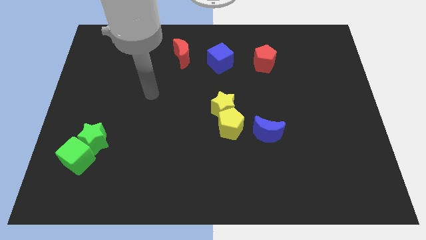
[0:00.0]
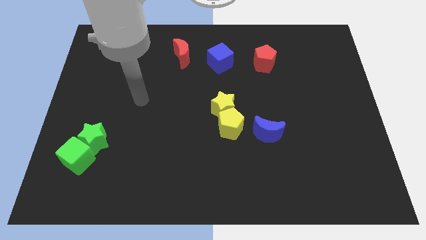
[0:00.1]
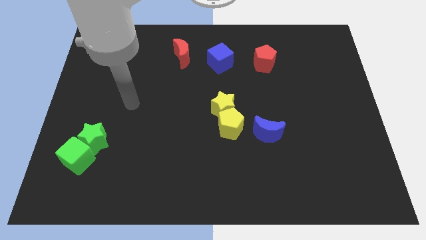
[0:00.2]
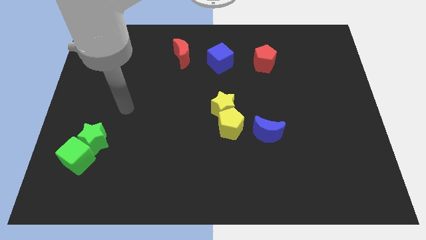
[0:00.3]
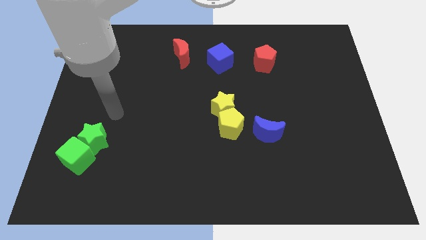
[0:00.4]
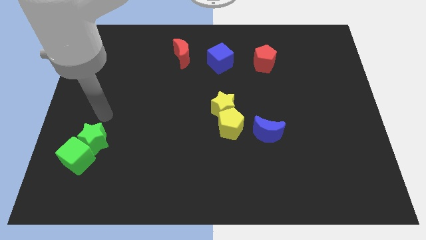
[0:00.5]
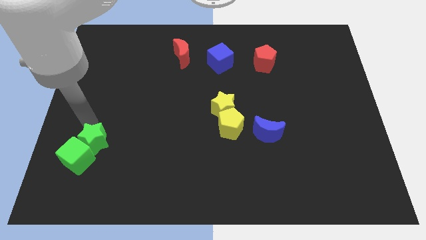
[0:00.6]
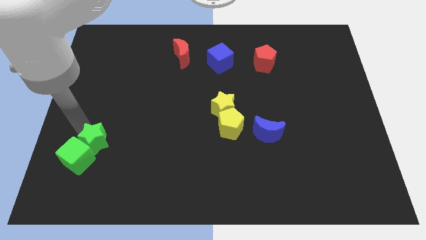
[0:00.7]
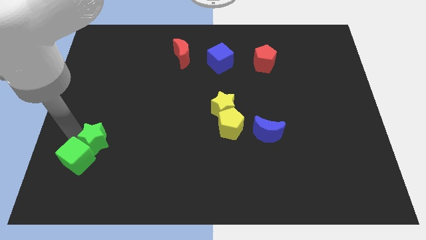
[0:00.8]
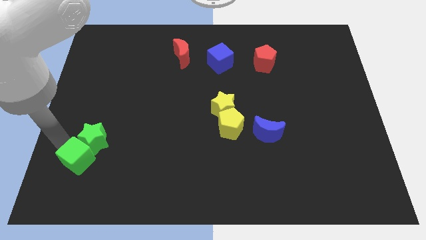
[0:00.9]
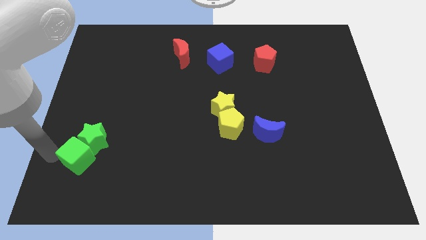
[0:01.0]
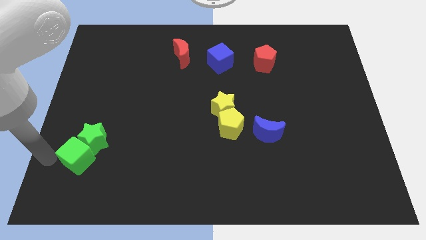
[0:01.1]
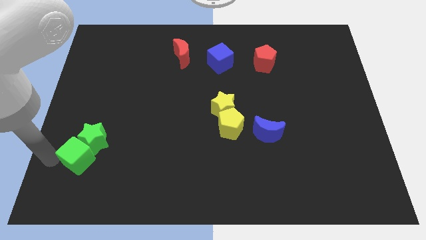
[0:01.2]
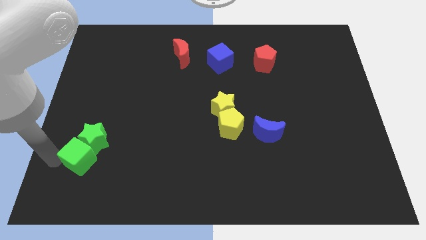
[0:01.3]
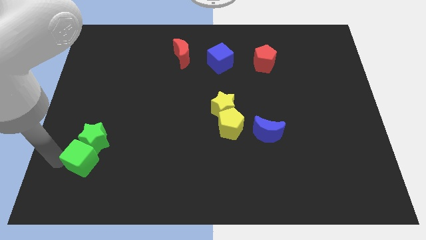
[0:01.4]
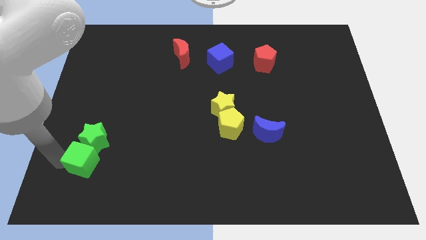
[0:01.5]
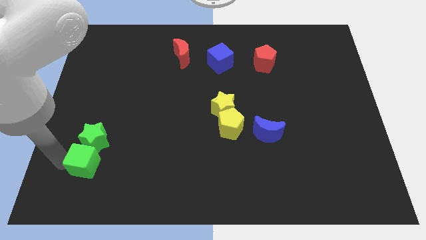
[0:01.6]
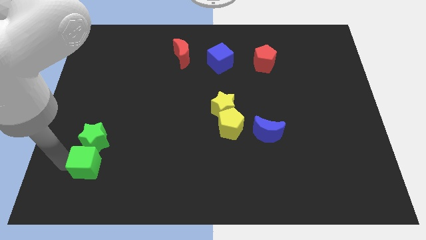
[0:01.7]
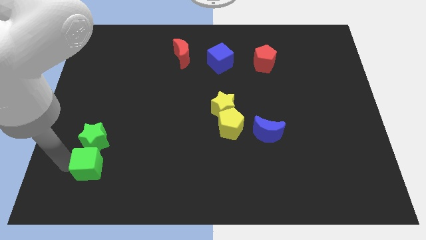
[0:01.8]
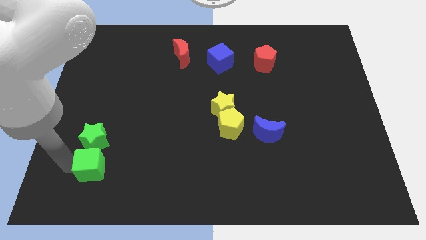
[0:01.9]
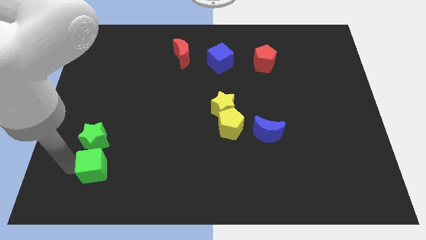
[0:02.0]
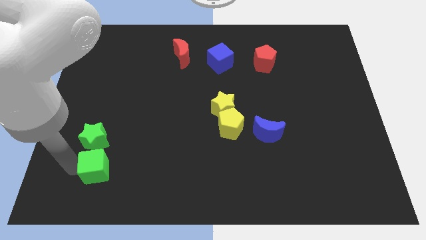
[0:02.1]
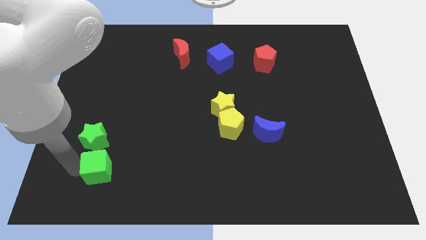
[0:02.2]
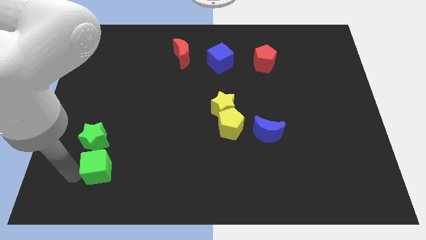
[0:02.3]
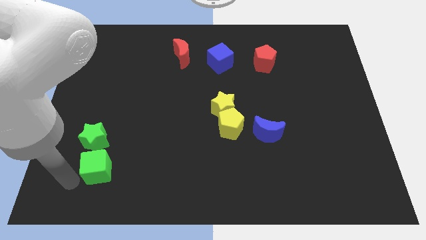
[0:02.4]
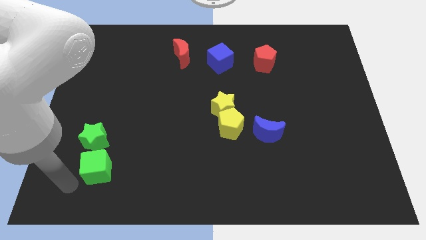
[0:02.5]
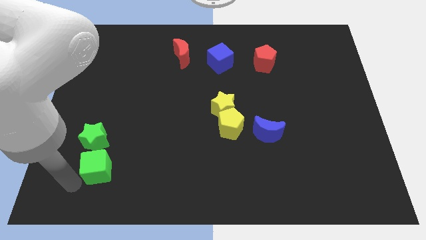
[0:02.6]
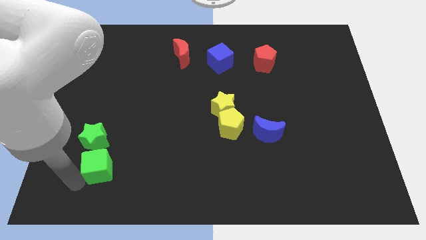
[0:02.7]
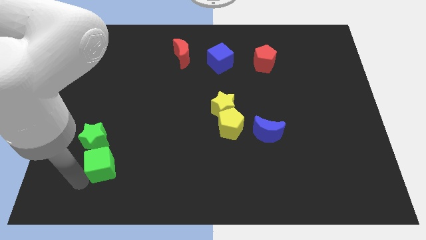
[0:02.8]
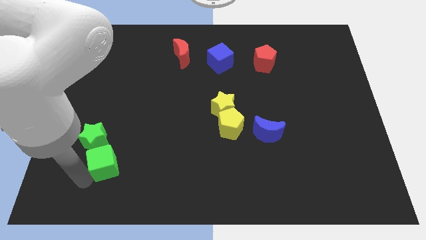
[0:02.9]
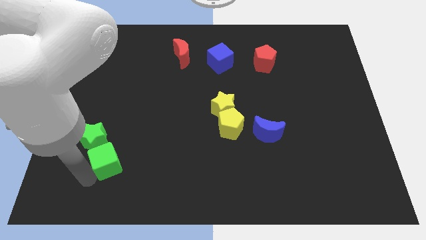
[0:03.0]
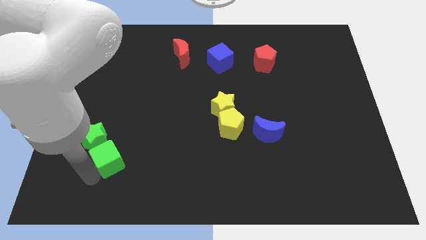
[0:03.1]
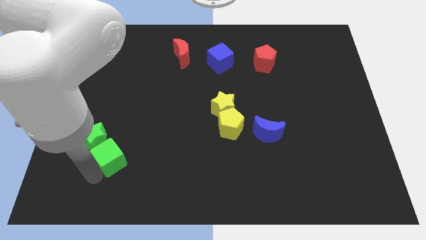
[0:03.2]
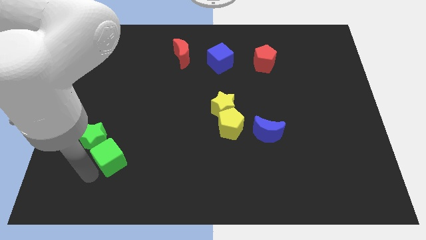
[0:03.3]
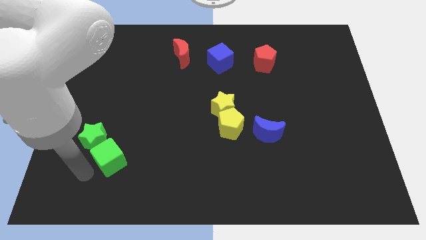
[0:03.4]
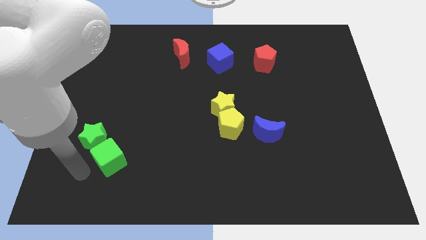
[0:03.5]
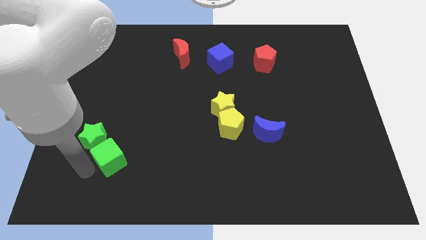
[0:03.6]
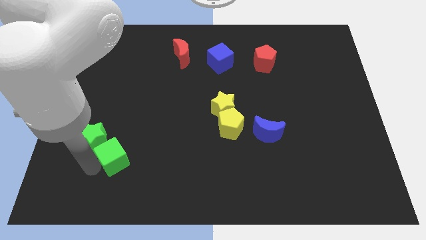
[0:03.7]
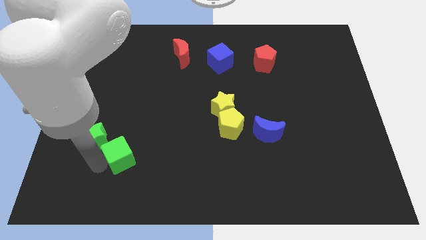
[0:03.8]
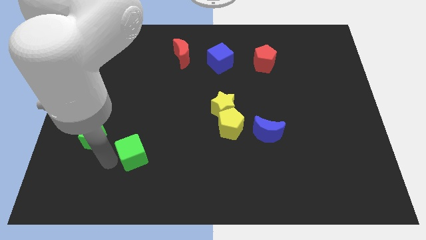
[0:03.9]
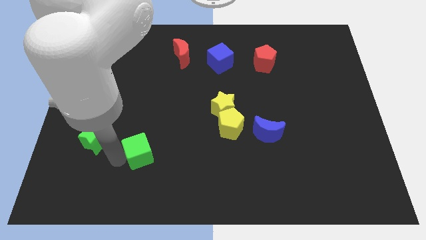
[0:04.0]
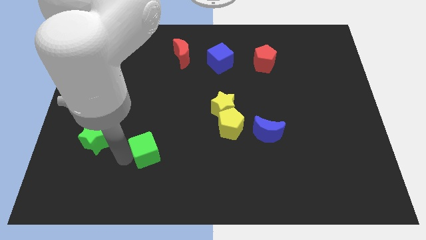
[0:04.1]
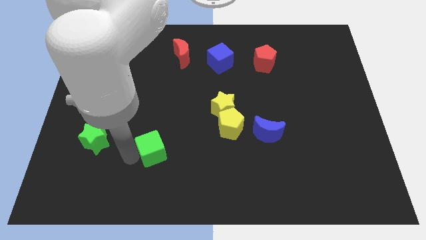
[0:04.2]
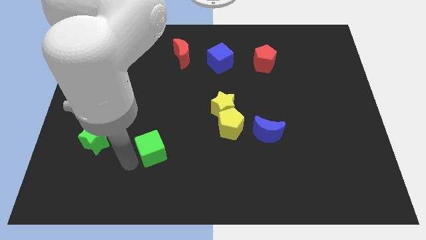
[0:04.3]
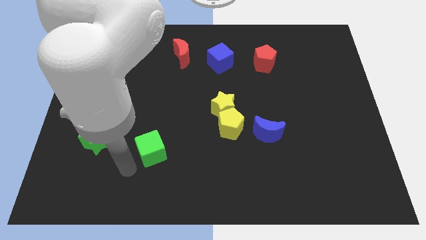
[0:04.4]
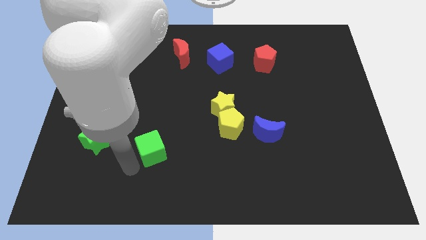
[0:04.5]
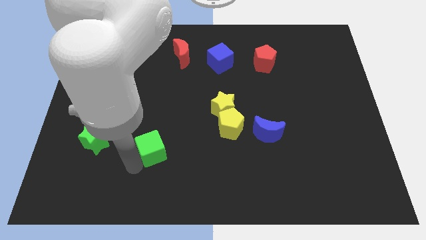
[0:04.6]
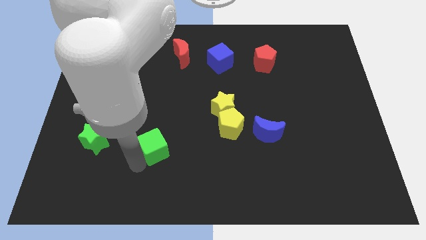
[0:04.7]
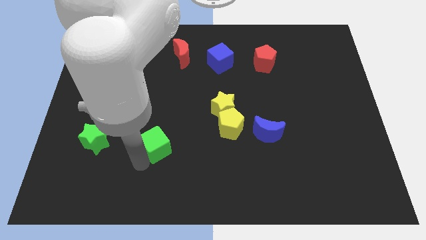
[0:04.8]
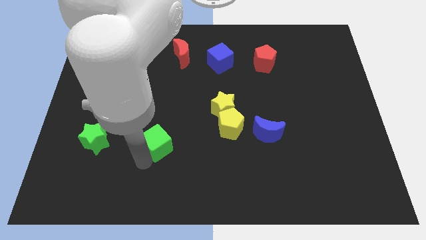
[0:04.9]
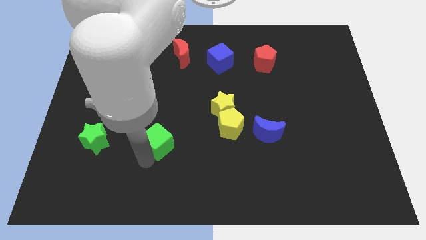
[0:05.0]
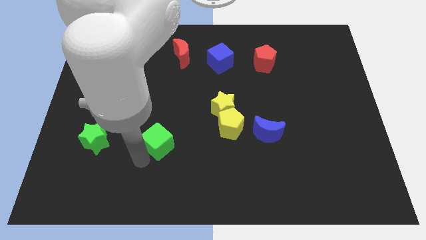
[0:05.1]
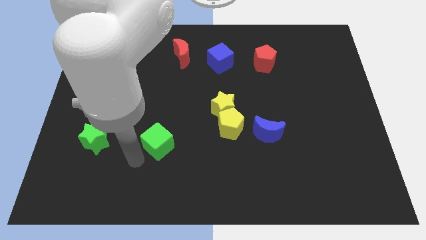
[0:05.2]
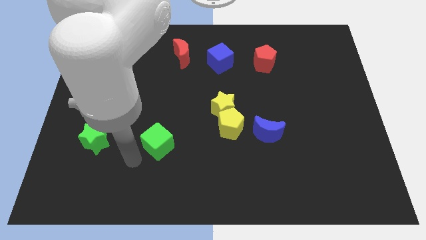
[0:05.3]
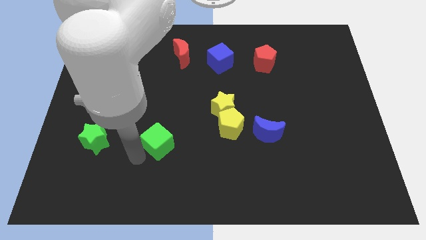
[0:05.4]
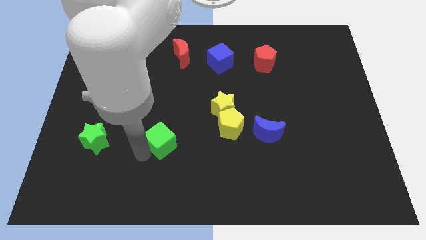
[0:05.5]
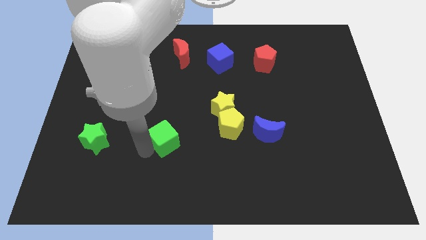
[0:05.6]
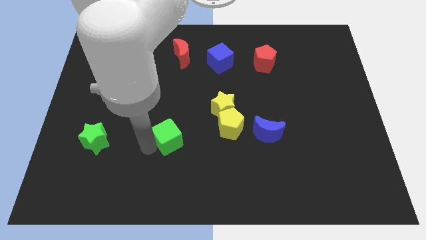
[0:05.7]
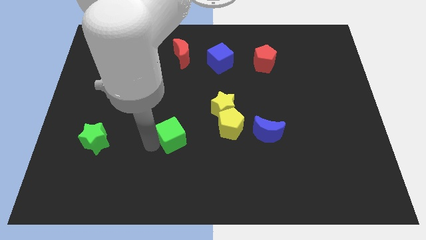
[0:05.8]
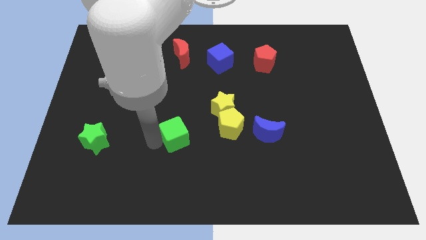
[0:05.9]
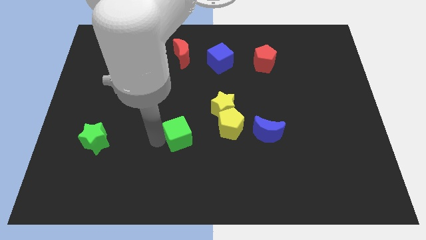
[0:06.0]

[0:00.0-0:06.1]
move the green cube to the bottom left side of the yellow star
